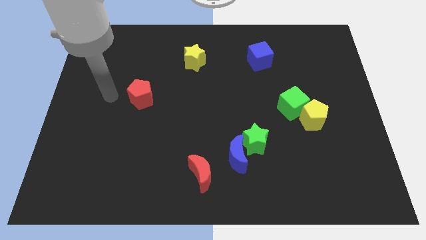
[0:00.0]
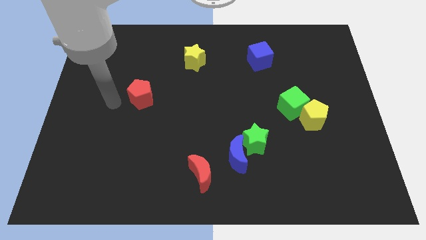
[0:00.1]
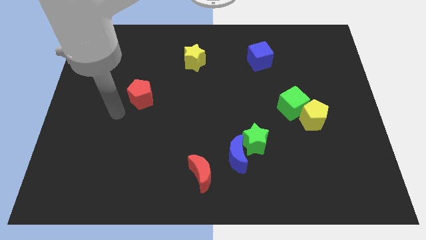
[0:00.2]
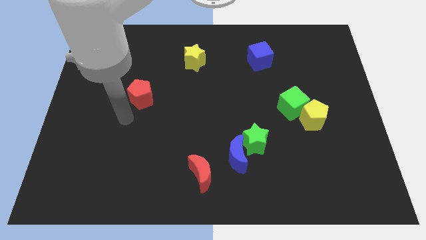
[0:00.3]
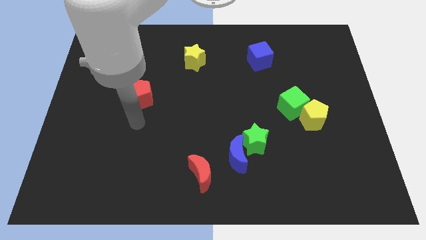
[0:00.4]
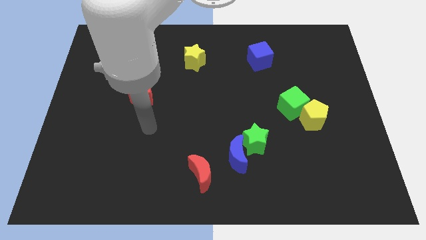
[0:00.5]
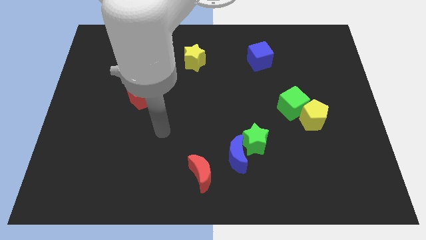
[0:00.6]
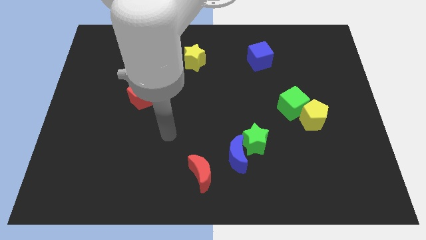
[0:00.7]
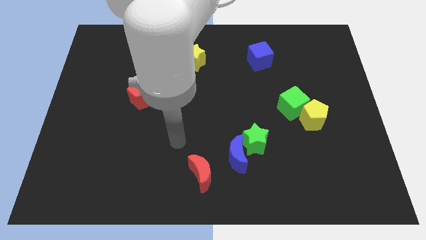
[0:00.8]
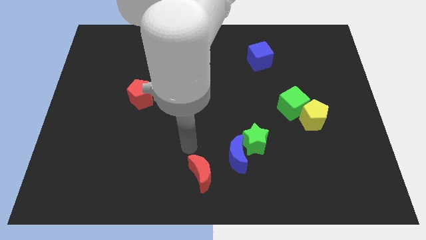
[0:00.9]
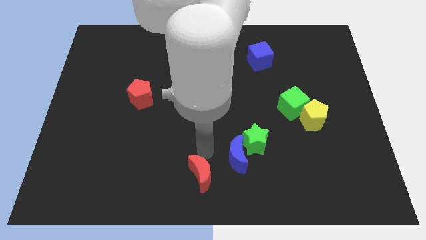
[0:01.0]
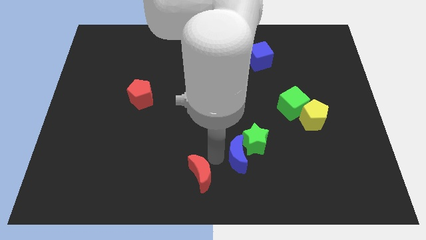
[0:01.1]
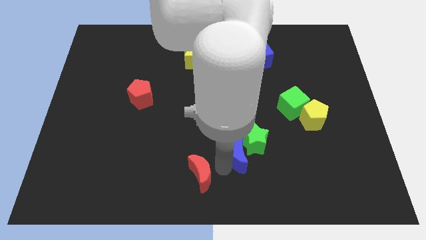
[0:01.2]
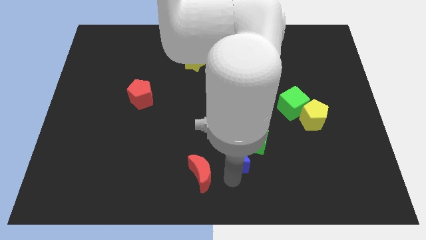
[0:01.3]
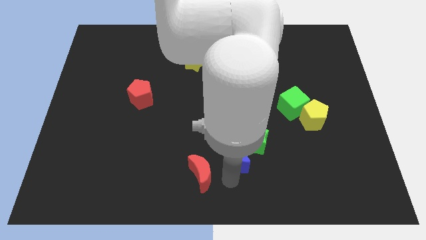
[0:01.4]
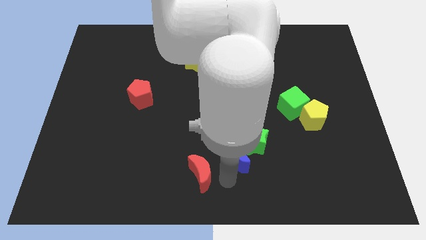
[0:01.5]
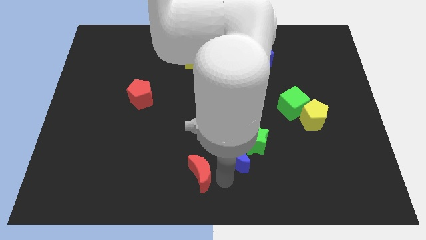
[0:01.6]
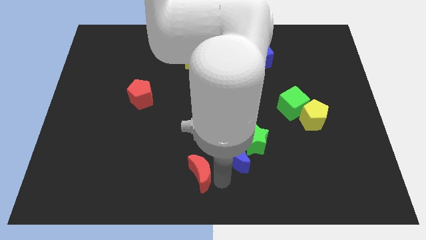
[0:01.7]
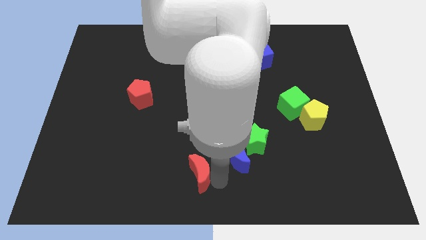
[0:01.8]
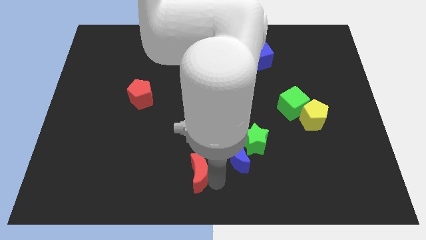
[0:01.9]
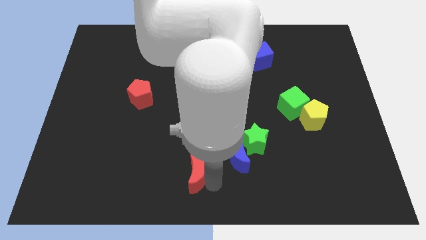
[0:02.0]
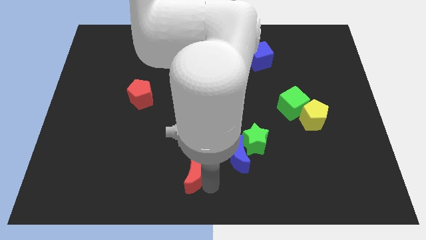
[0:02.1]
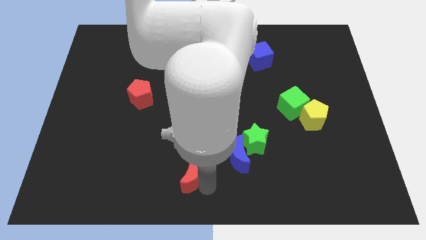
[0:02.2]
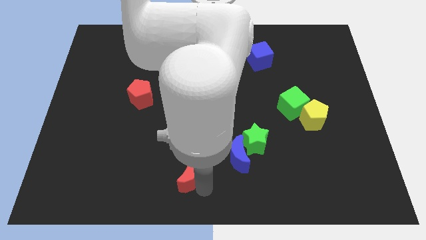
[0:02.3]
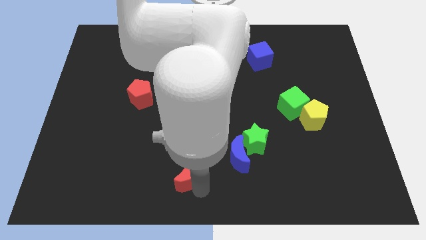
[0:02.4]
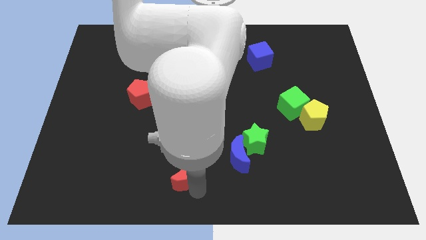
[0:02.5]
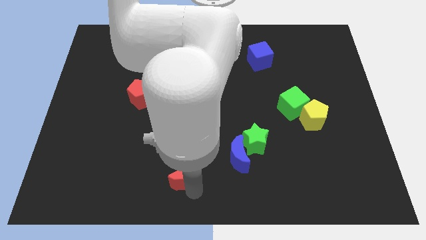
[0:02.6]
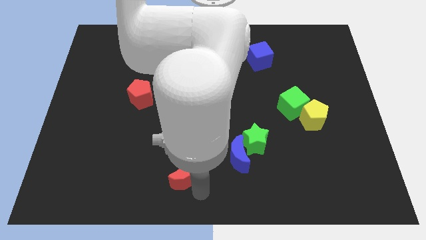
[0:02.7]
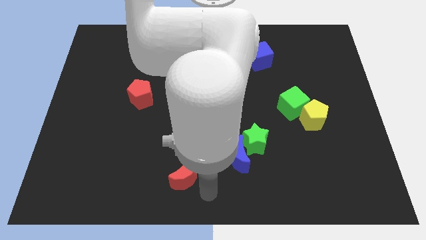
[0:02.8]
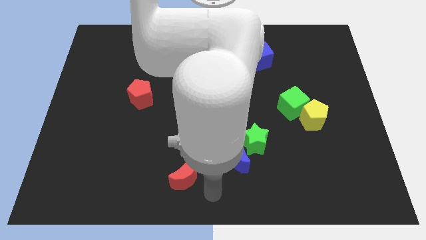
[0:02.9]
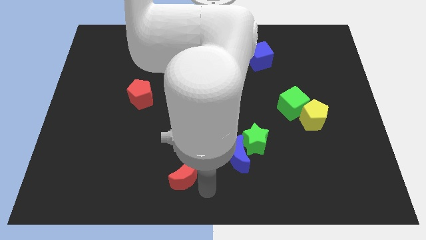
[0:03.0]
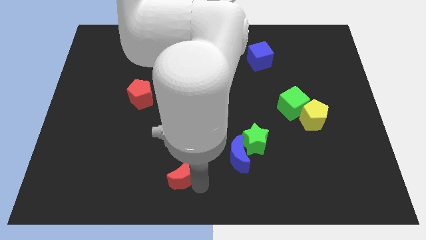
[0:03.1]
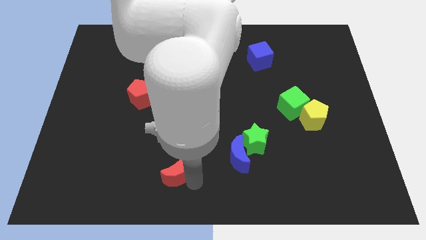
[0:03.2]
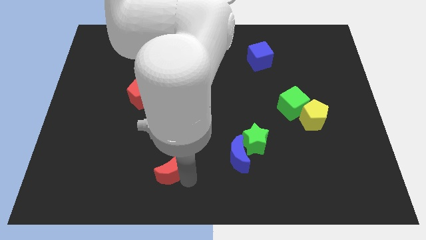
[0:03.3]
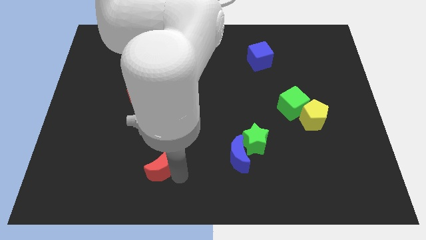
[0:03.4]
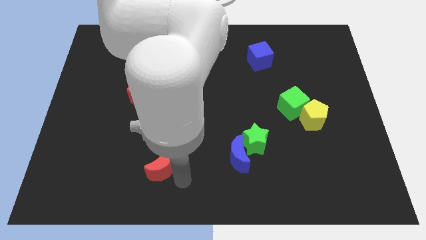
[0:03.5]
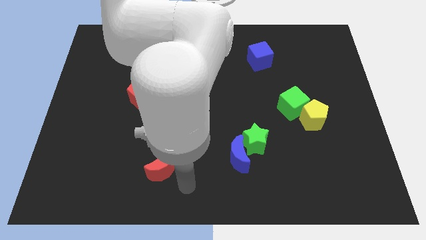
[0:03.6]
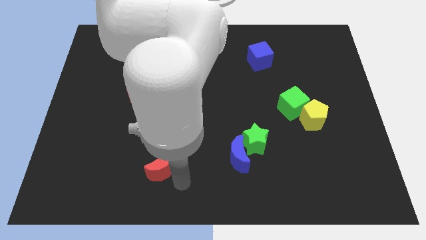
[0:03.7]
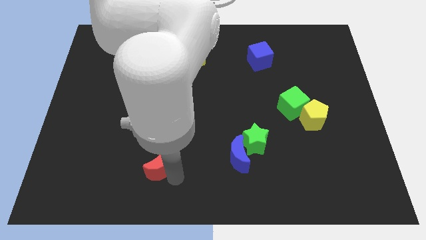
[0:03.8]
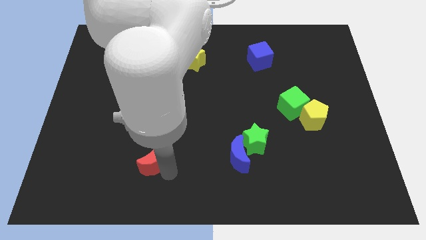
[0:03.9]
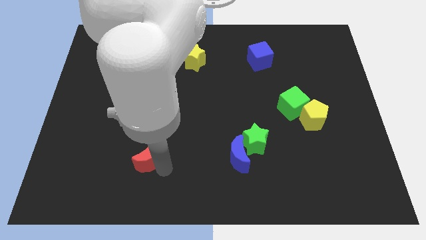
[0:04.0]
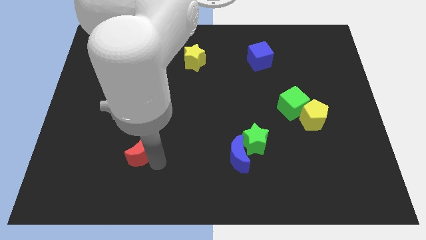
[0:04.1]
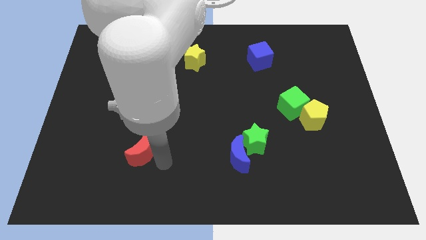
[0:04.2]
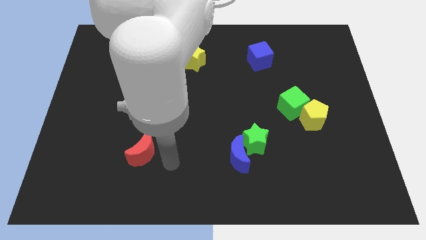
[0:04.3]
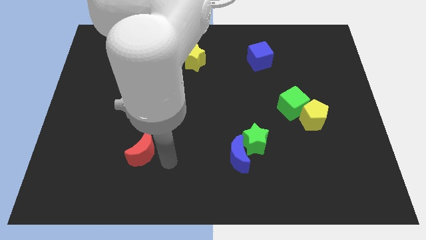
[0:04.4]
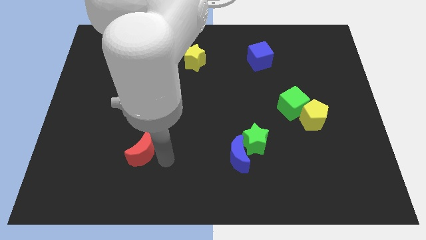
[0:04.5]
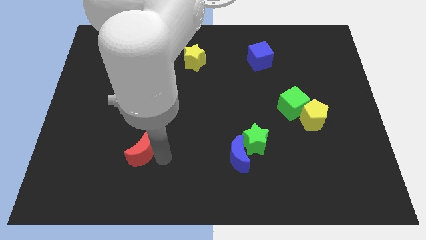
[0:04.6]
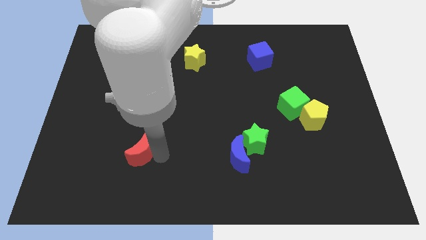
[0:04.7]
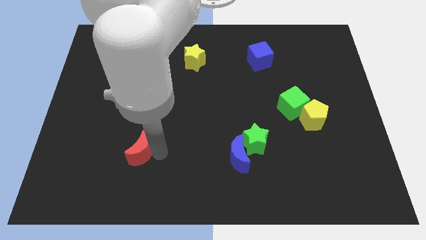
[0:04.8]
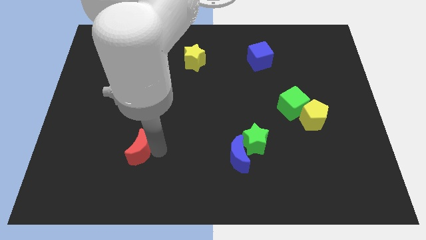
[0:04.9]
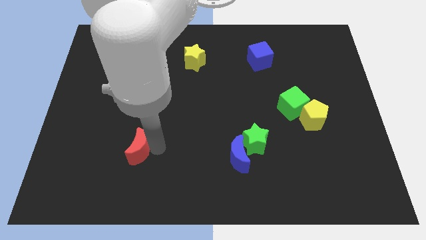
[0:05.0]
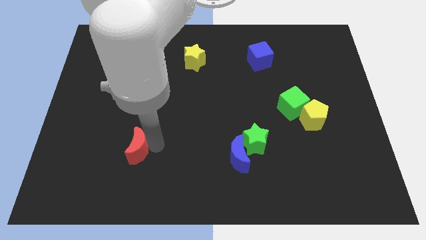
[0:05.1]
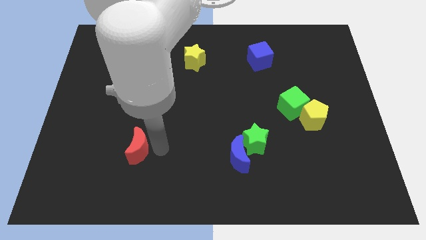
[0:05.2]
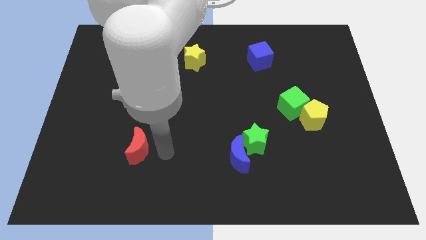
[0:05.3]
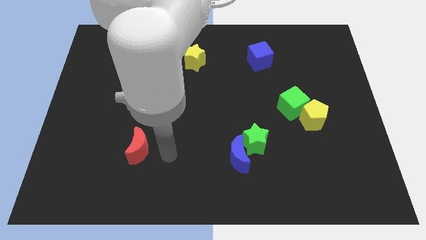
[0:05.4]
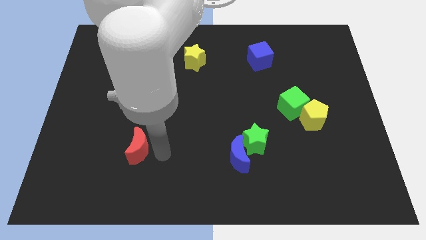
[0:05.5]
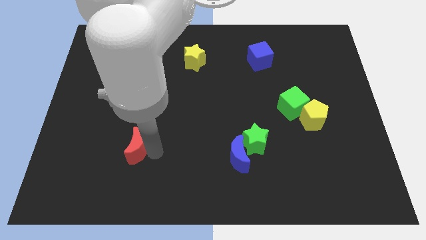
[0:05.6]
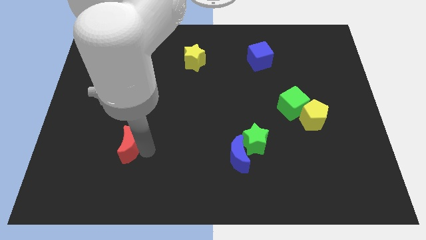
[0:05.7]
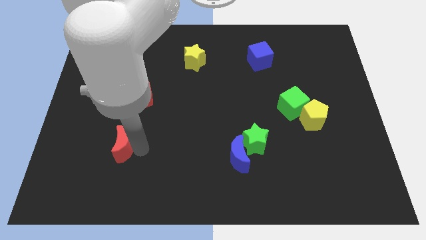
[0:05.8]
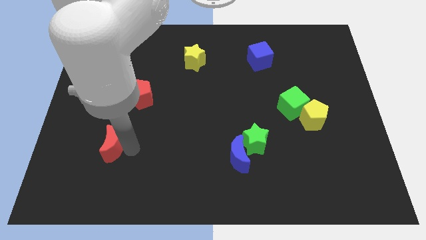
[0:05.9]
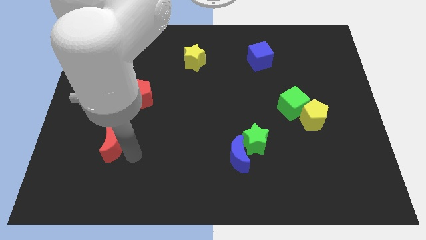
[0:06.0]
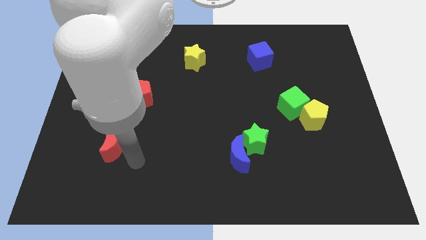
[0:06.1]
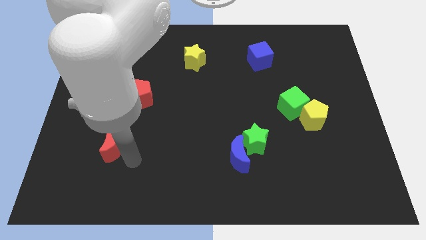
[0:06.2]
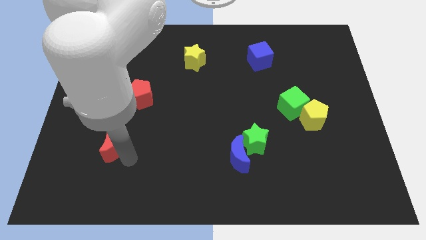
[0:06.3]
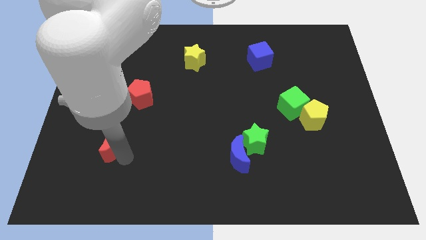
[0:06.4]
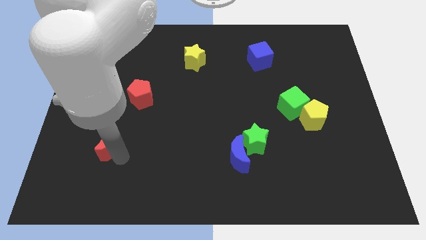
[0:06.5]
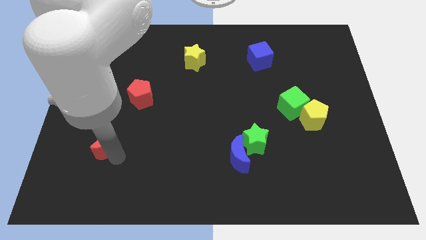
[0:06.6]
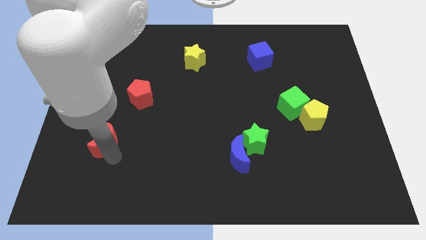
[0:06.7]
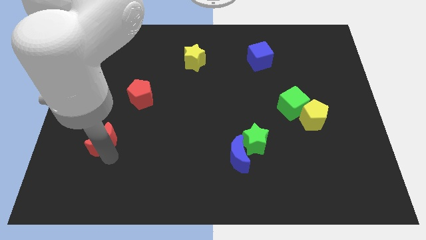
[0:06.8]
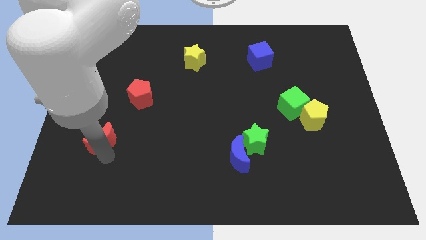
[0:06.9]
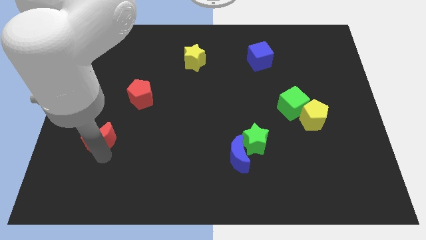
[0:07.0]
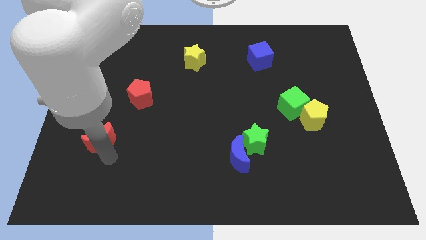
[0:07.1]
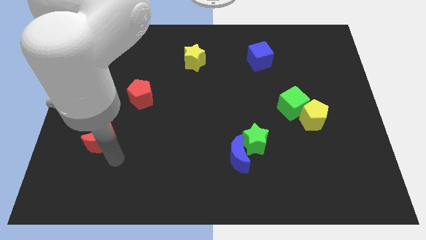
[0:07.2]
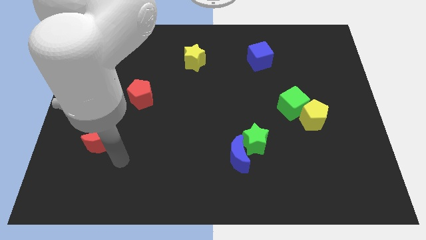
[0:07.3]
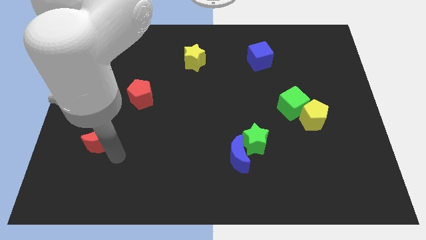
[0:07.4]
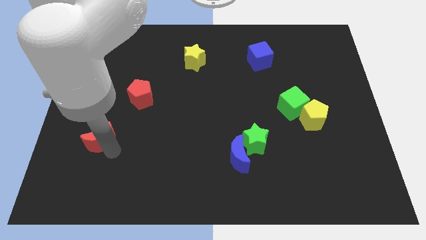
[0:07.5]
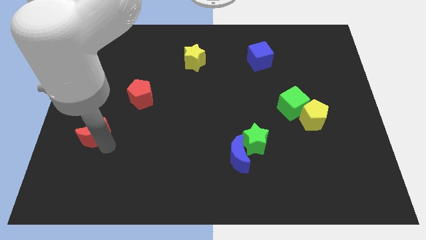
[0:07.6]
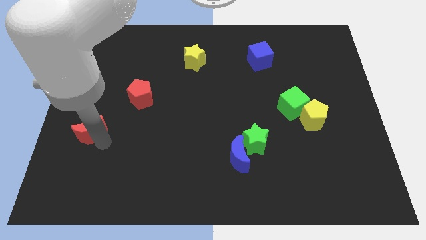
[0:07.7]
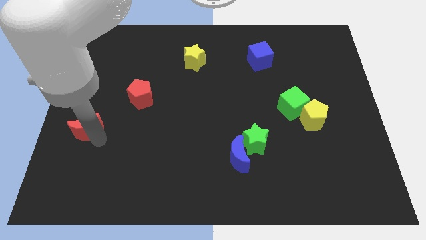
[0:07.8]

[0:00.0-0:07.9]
move the red moon to the left side of the board
